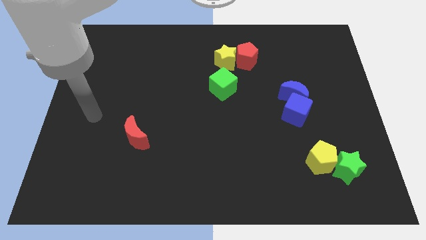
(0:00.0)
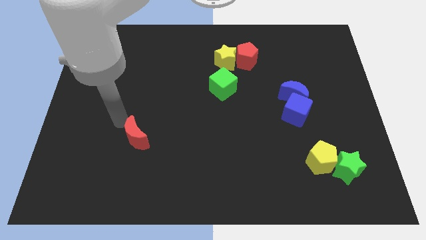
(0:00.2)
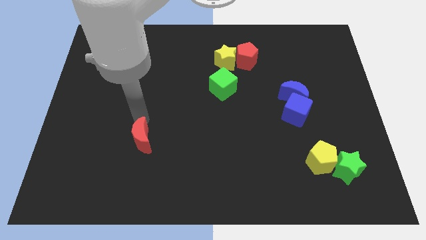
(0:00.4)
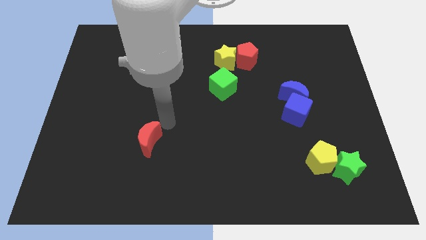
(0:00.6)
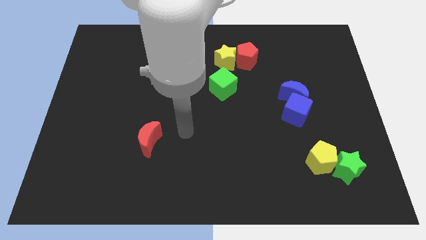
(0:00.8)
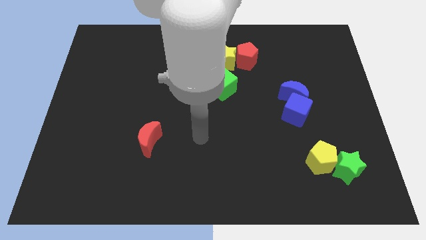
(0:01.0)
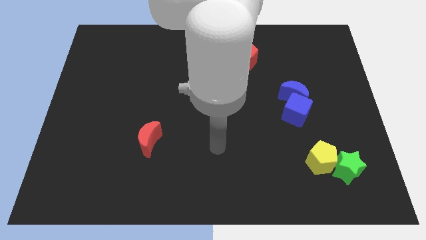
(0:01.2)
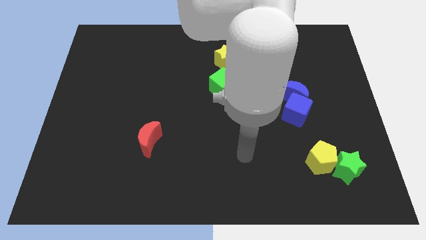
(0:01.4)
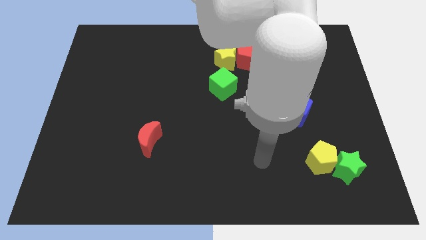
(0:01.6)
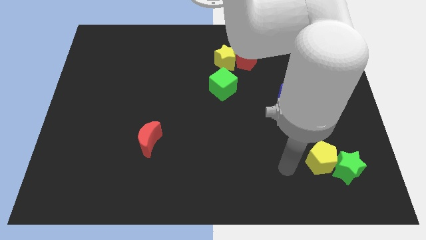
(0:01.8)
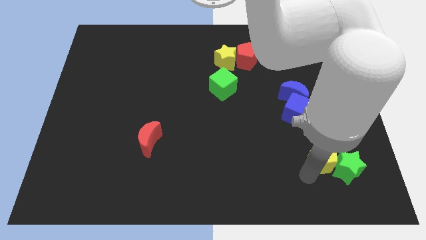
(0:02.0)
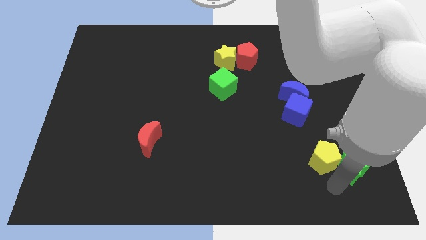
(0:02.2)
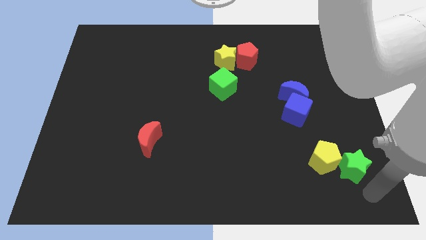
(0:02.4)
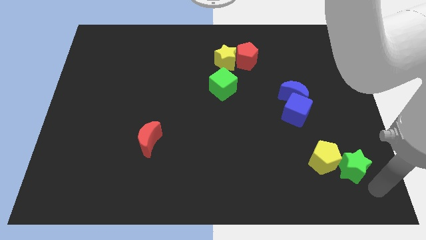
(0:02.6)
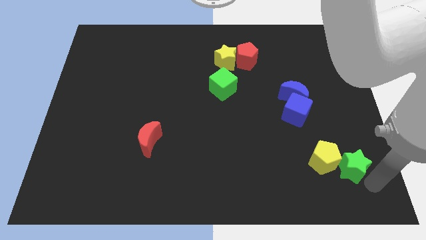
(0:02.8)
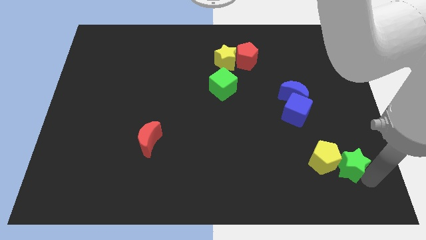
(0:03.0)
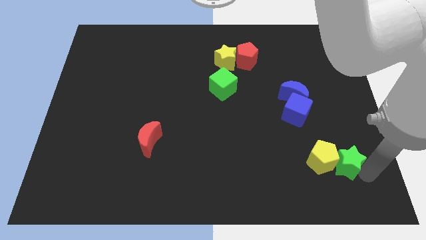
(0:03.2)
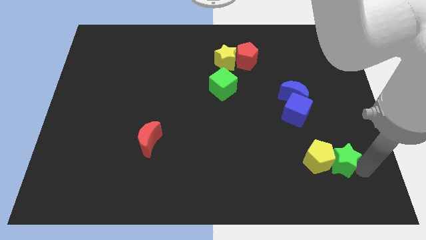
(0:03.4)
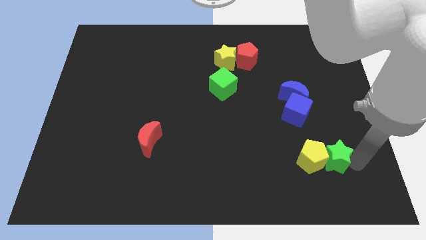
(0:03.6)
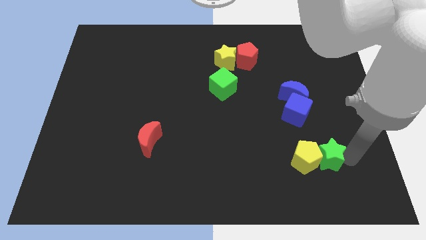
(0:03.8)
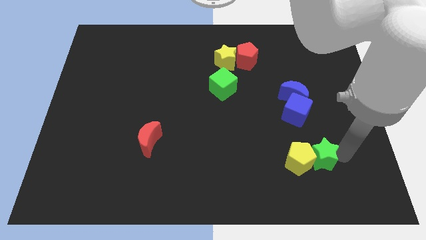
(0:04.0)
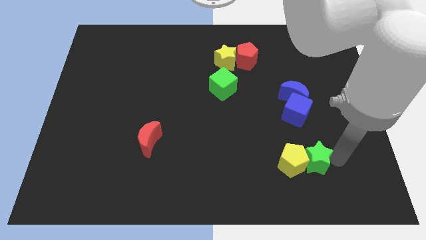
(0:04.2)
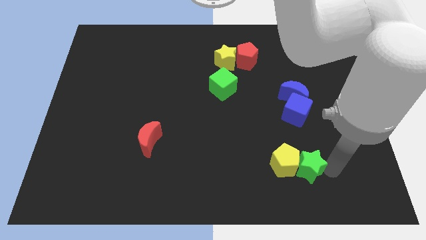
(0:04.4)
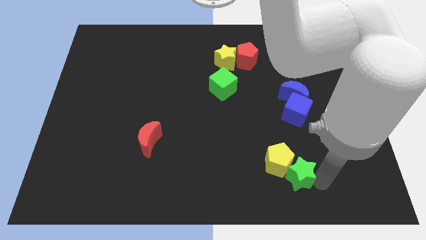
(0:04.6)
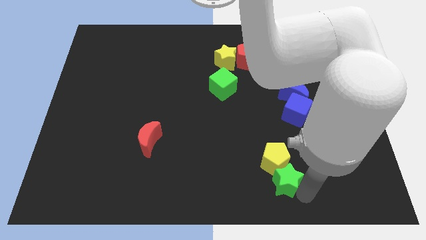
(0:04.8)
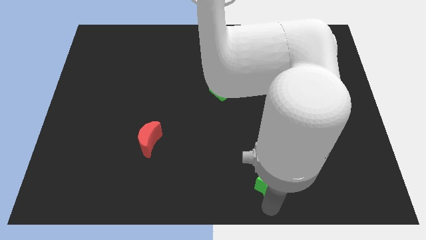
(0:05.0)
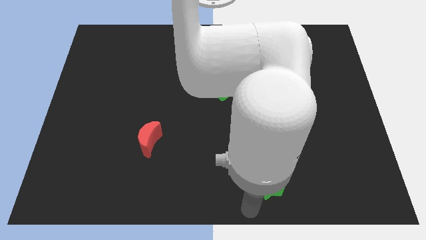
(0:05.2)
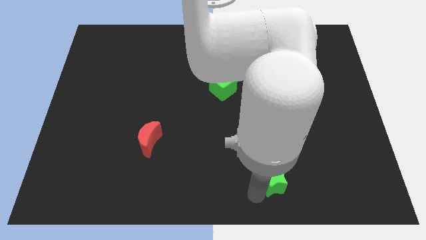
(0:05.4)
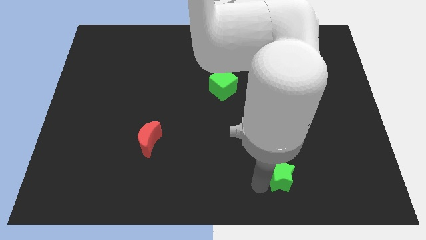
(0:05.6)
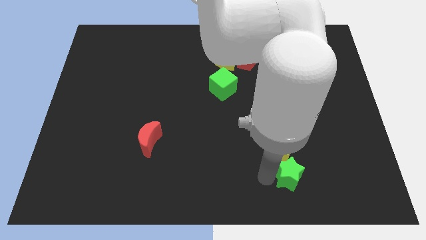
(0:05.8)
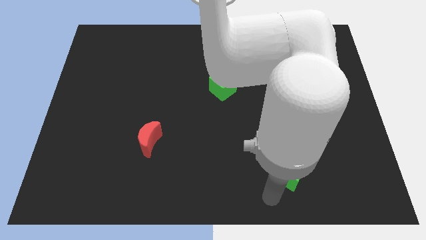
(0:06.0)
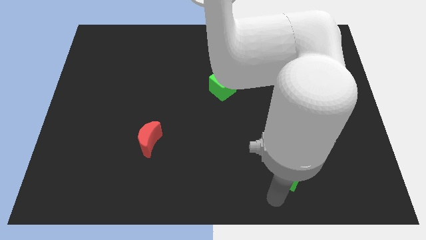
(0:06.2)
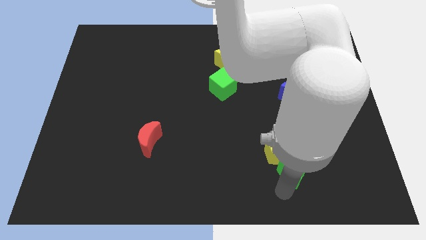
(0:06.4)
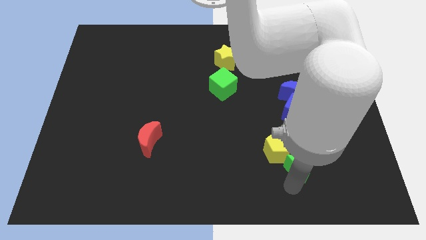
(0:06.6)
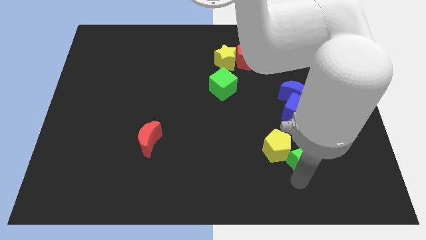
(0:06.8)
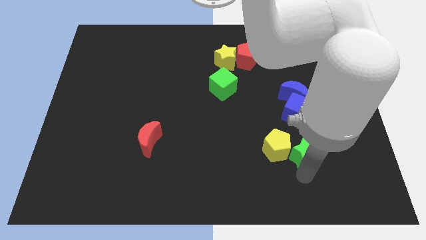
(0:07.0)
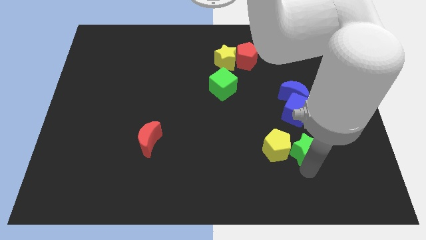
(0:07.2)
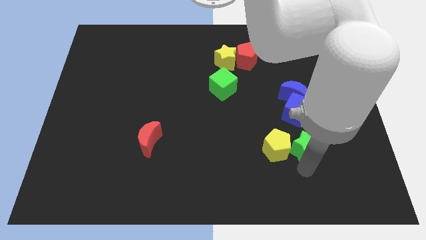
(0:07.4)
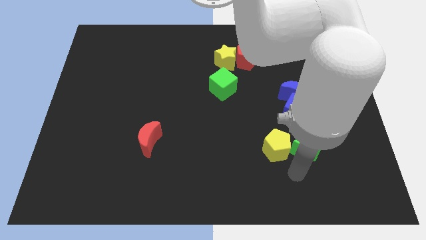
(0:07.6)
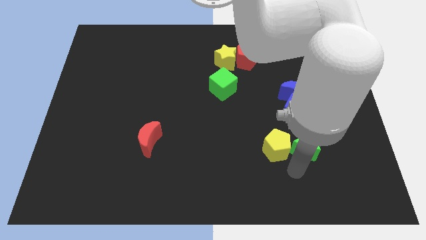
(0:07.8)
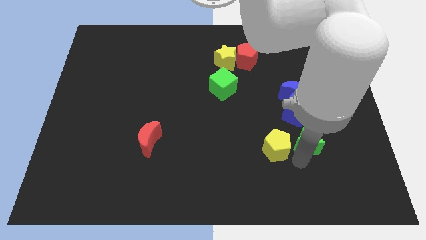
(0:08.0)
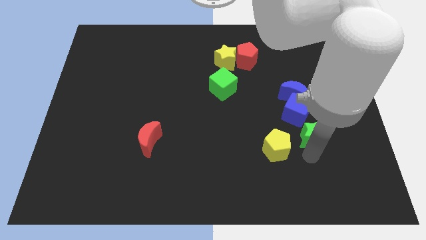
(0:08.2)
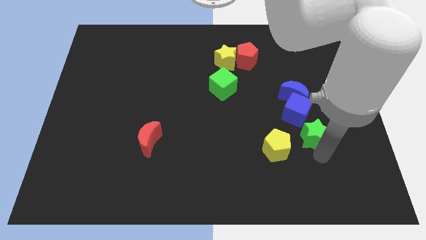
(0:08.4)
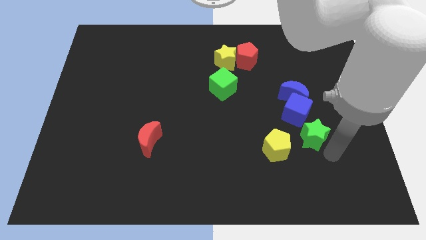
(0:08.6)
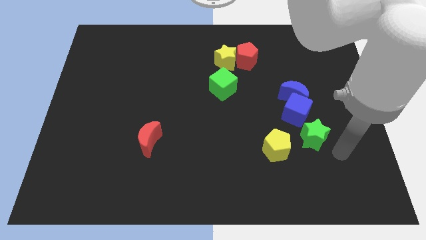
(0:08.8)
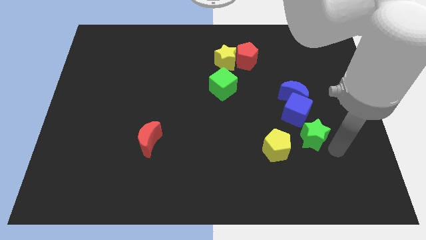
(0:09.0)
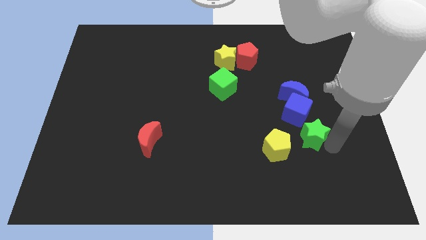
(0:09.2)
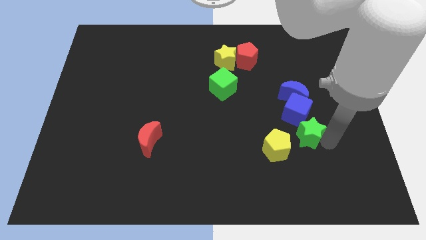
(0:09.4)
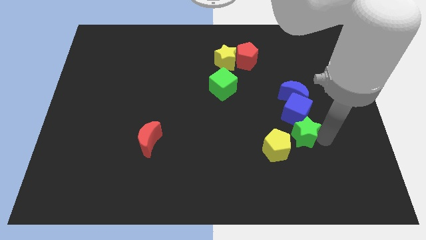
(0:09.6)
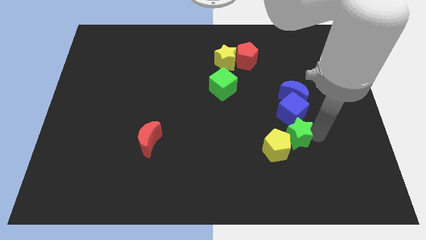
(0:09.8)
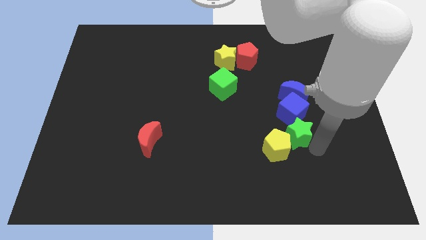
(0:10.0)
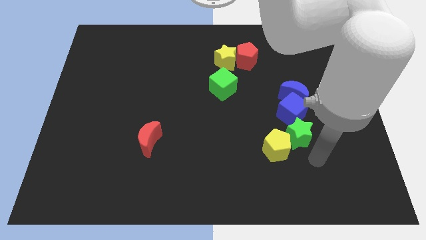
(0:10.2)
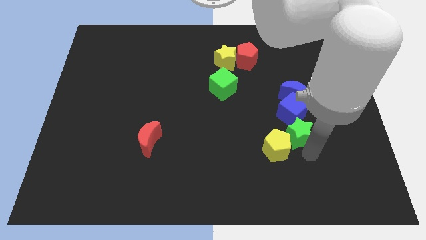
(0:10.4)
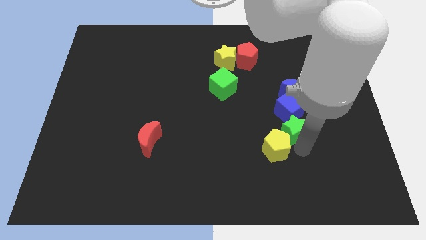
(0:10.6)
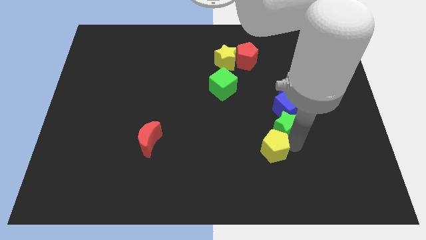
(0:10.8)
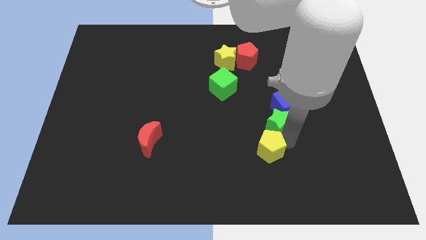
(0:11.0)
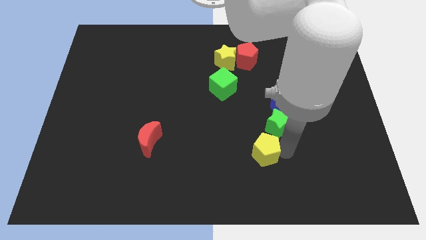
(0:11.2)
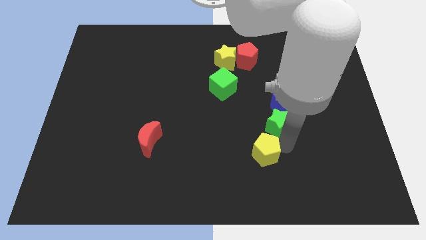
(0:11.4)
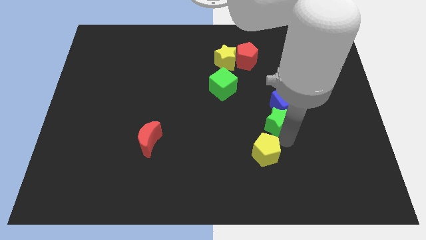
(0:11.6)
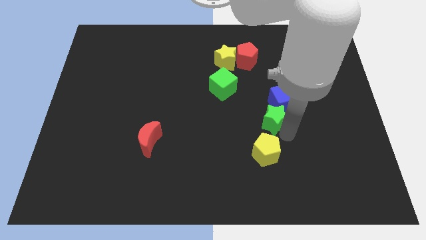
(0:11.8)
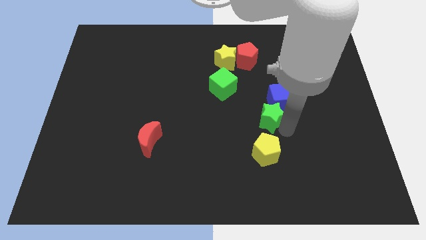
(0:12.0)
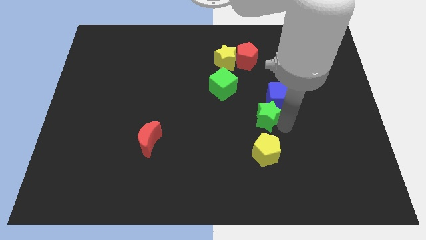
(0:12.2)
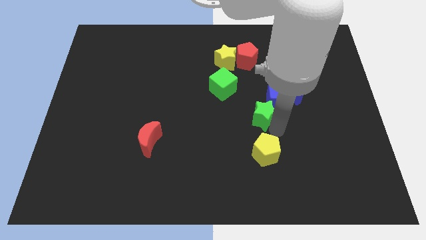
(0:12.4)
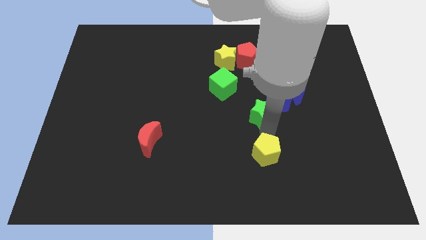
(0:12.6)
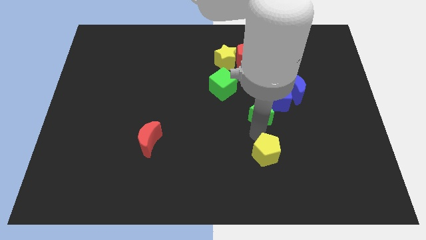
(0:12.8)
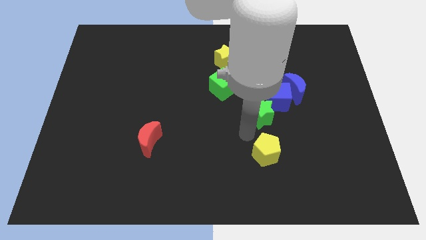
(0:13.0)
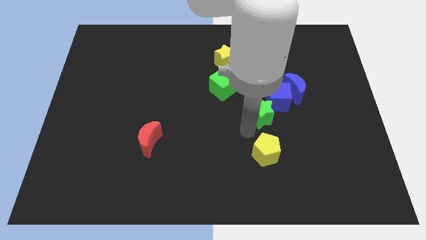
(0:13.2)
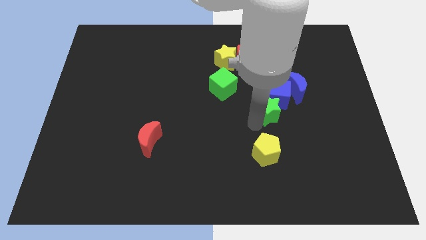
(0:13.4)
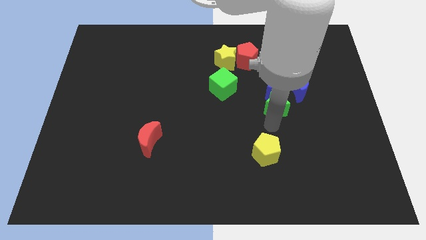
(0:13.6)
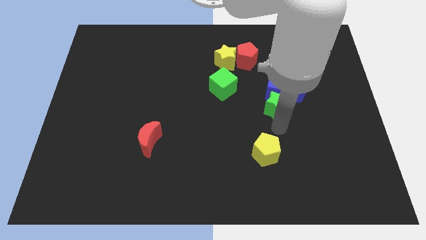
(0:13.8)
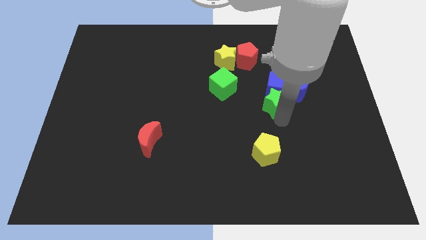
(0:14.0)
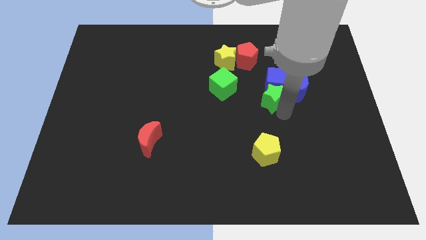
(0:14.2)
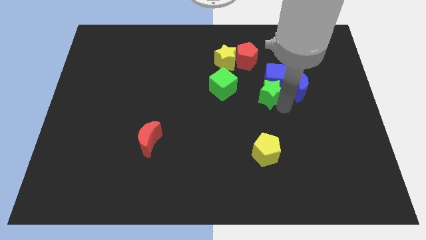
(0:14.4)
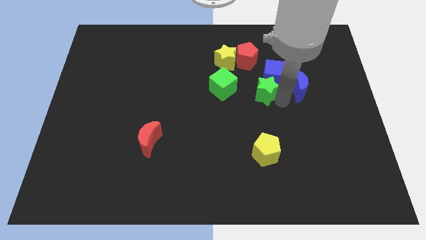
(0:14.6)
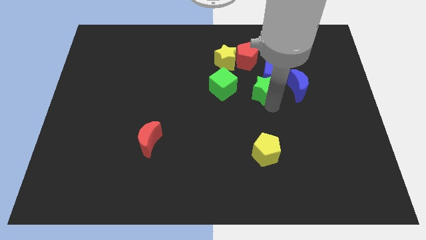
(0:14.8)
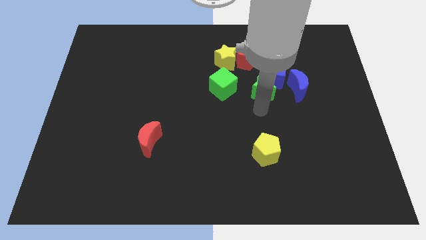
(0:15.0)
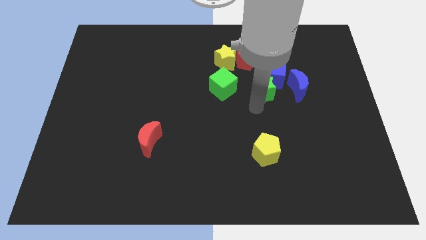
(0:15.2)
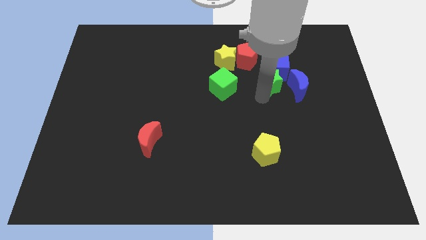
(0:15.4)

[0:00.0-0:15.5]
move the green star to the top left of the blue moon
